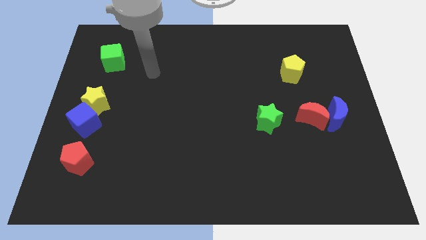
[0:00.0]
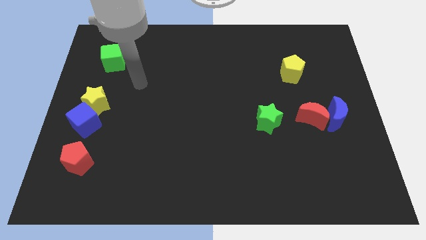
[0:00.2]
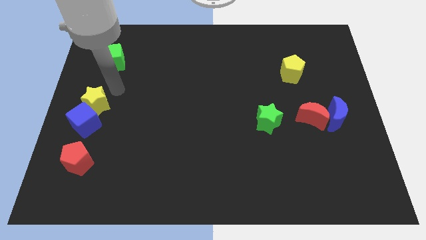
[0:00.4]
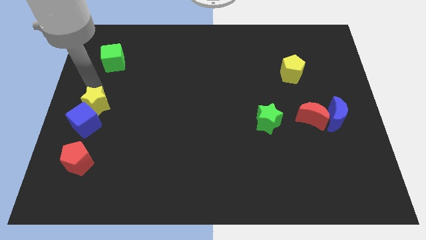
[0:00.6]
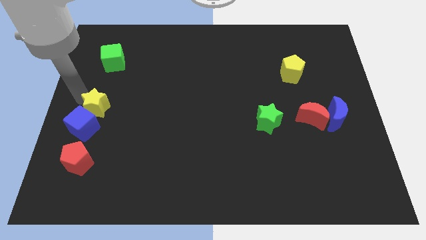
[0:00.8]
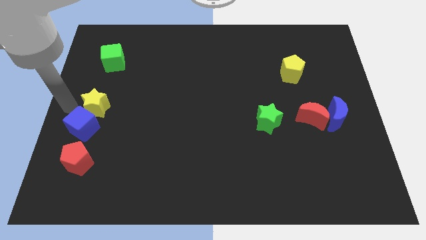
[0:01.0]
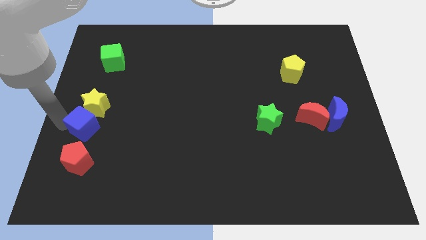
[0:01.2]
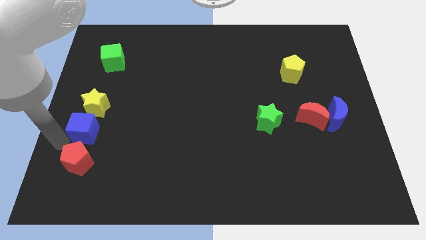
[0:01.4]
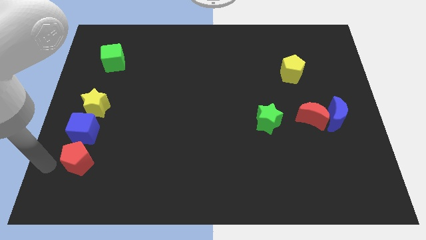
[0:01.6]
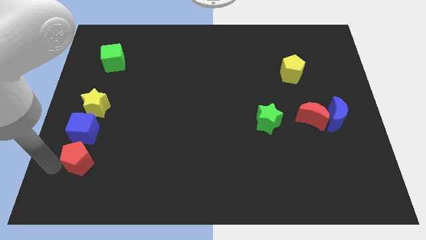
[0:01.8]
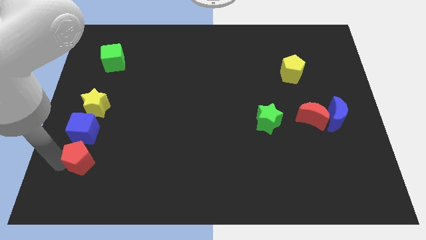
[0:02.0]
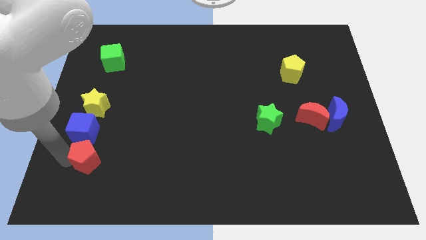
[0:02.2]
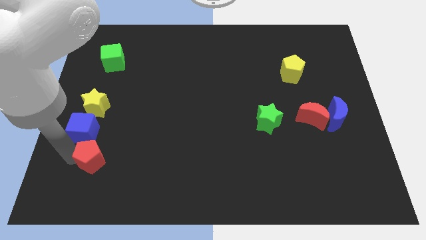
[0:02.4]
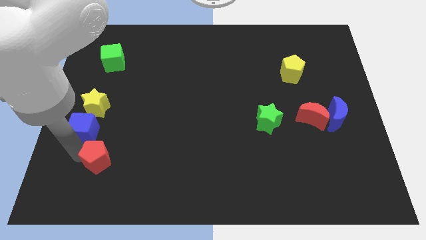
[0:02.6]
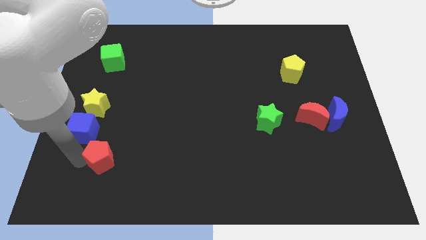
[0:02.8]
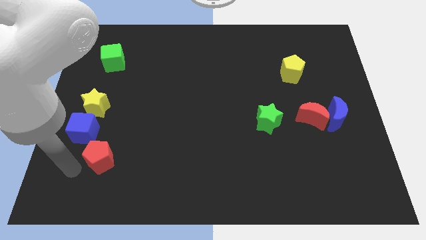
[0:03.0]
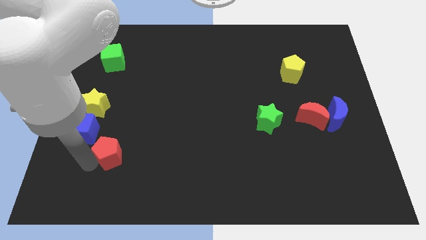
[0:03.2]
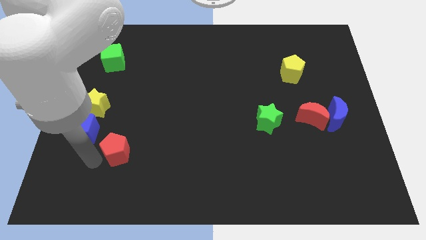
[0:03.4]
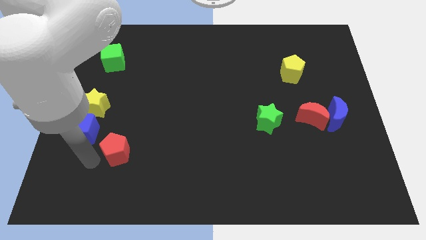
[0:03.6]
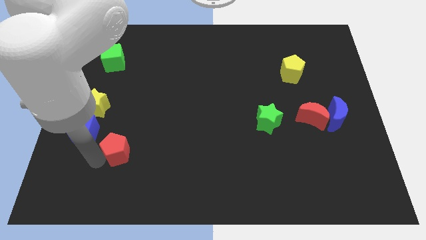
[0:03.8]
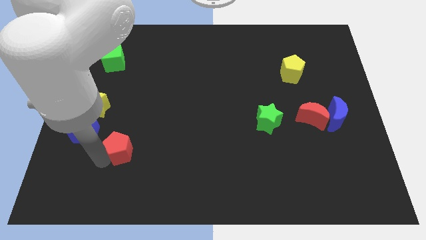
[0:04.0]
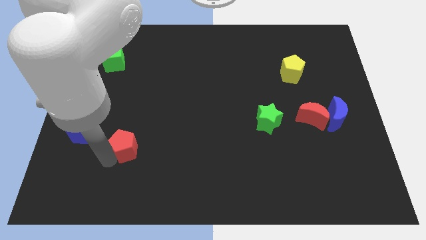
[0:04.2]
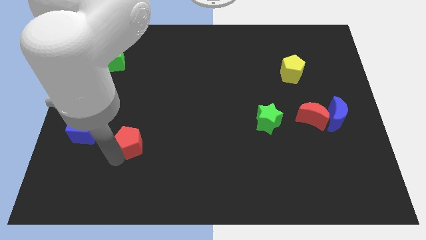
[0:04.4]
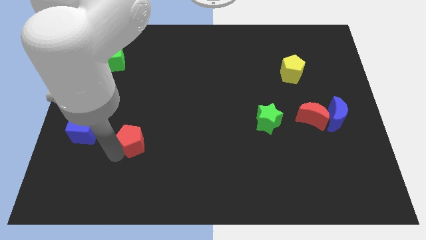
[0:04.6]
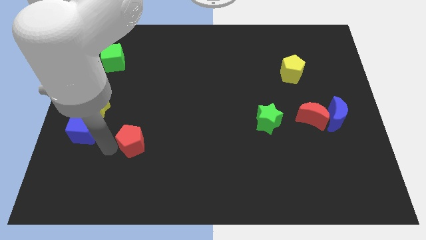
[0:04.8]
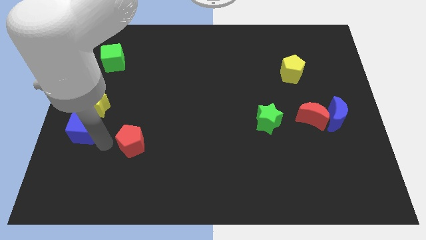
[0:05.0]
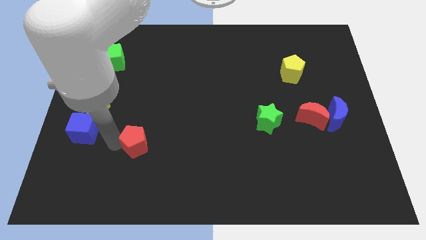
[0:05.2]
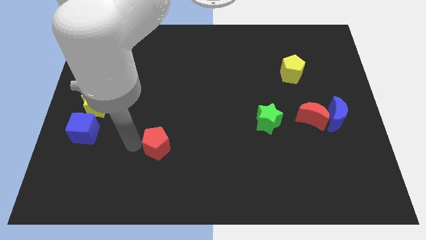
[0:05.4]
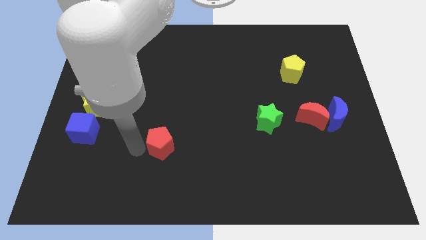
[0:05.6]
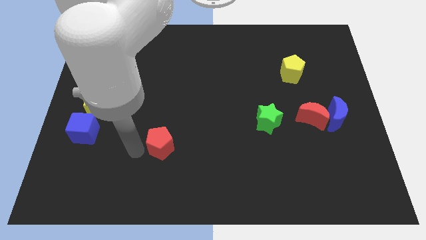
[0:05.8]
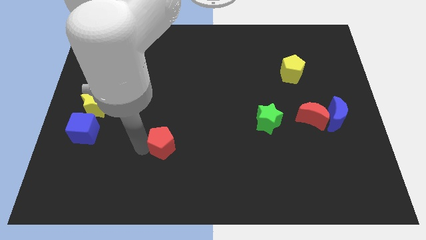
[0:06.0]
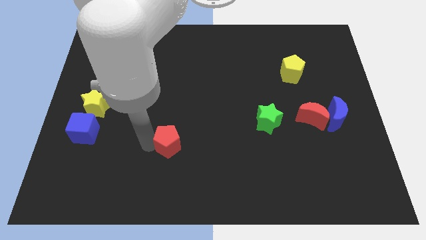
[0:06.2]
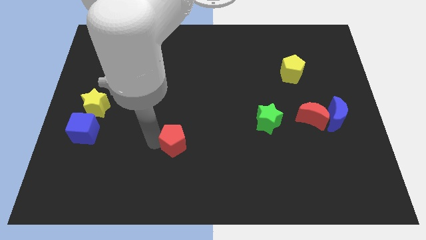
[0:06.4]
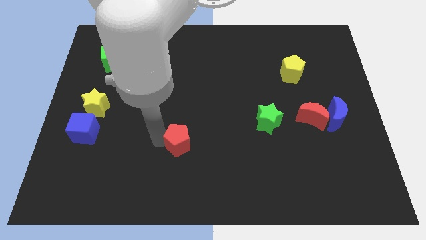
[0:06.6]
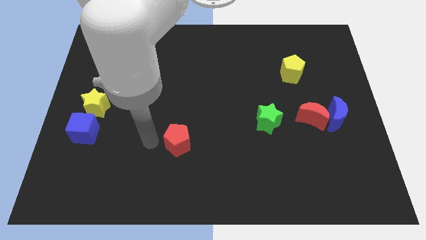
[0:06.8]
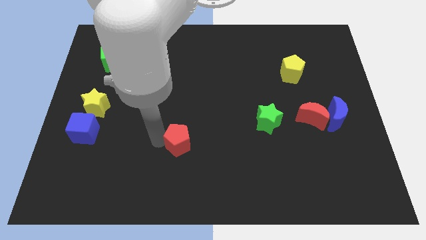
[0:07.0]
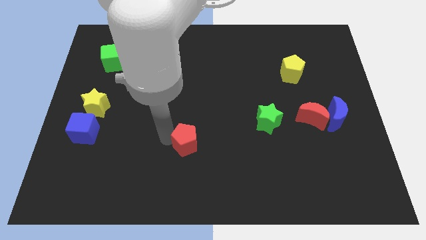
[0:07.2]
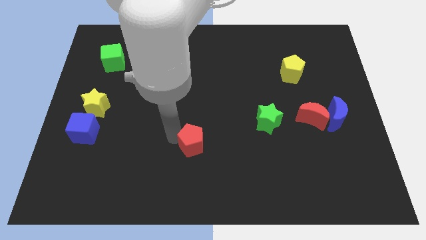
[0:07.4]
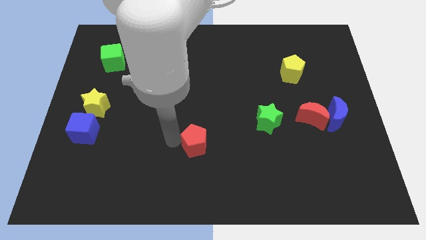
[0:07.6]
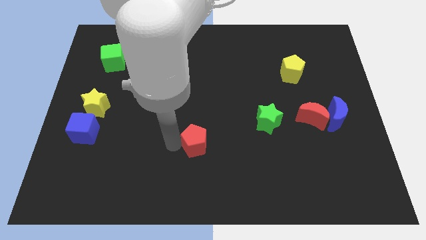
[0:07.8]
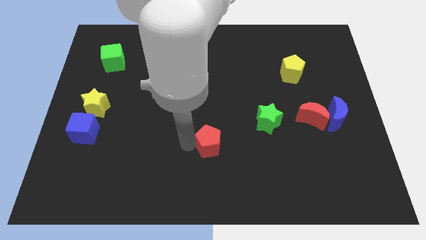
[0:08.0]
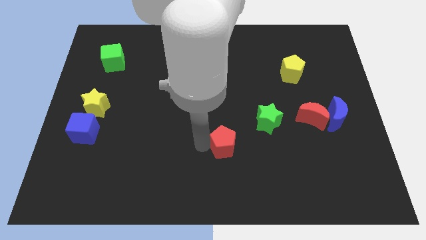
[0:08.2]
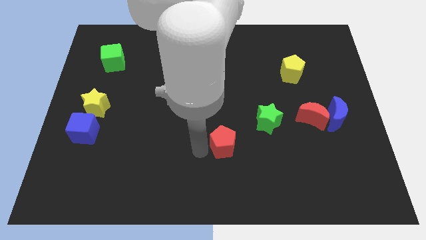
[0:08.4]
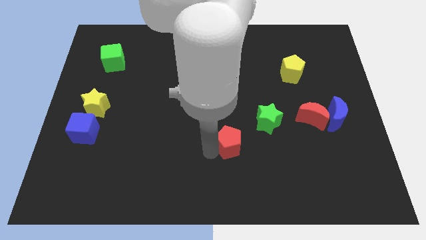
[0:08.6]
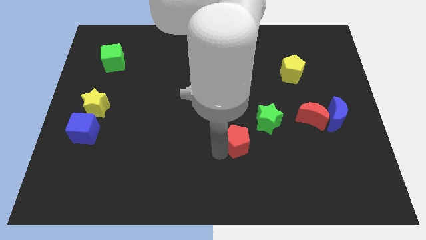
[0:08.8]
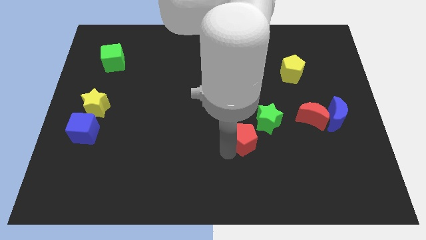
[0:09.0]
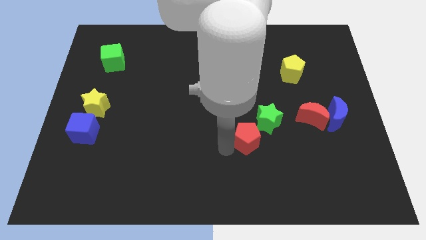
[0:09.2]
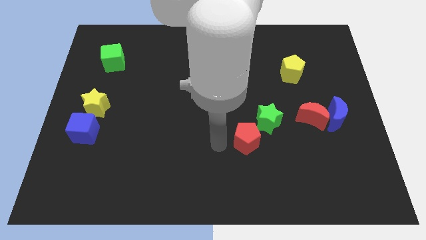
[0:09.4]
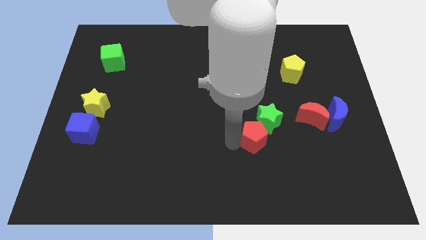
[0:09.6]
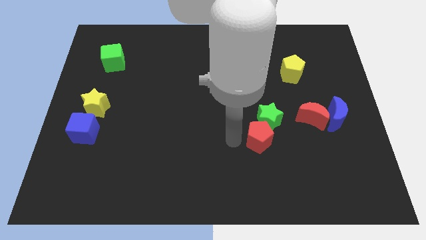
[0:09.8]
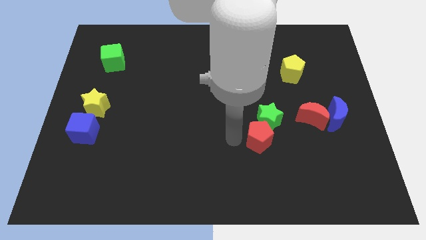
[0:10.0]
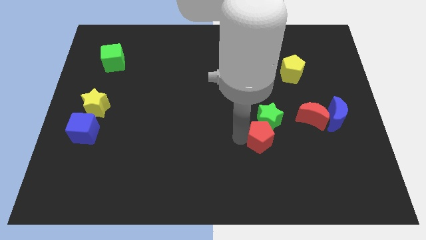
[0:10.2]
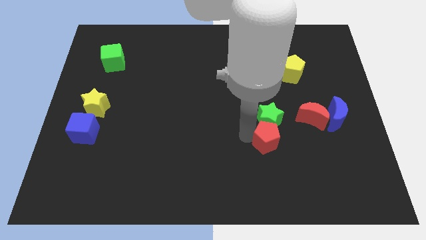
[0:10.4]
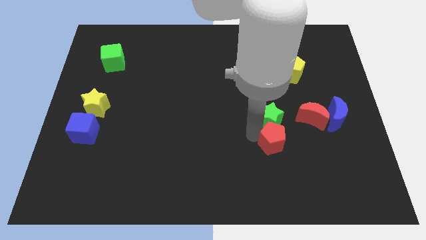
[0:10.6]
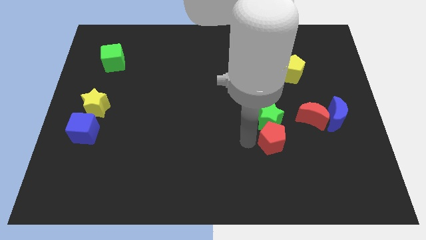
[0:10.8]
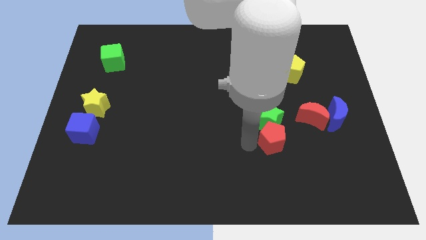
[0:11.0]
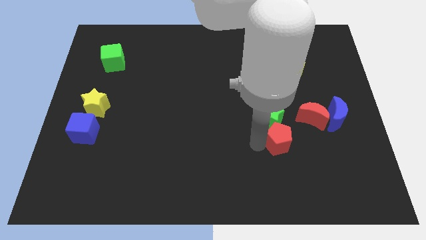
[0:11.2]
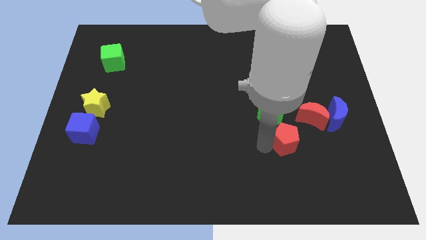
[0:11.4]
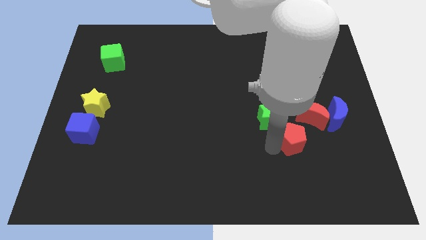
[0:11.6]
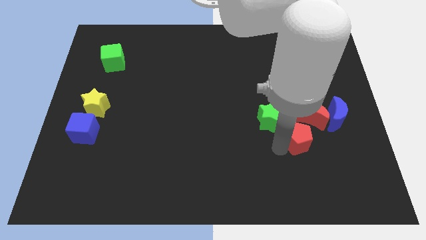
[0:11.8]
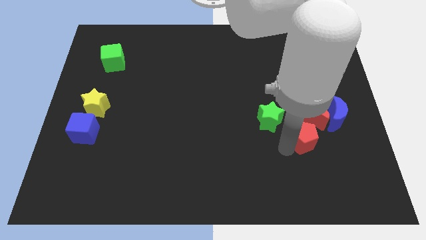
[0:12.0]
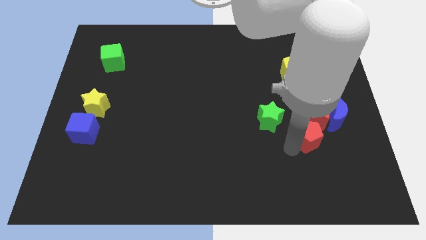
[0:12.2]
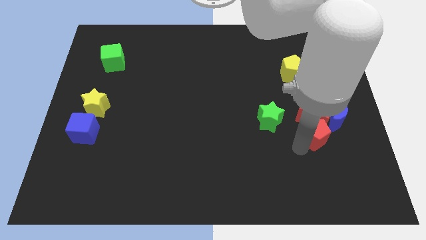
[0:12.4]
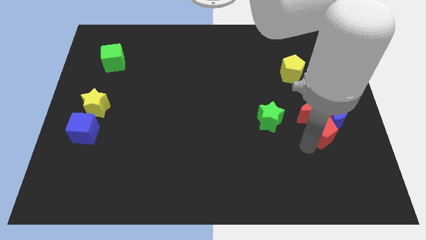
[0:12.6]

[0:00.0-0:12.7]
push the red pentagon next to the blue moon
